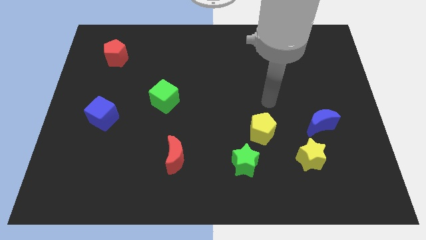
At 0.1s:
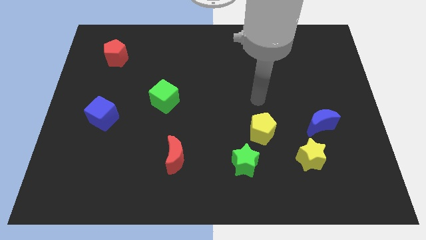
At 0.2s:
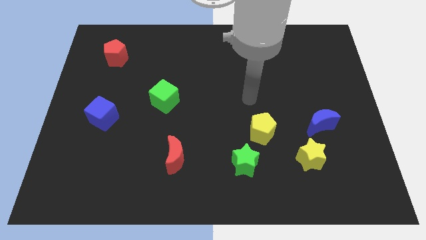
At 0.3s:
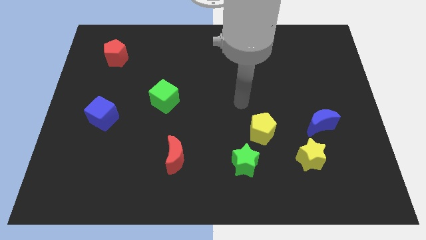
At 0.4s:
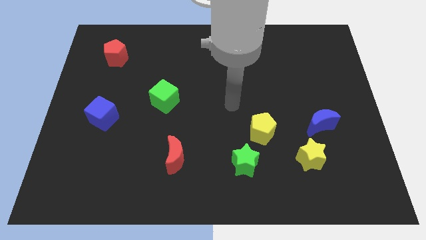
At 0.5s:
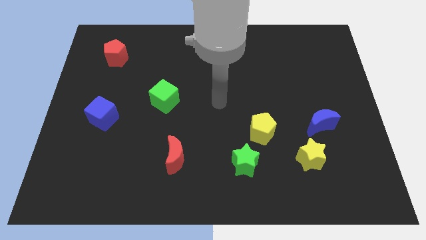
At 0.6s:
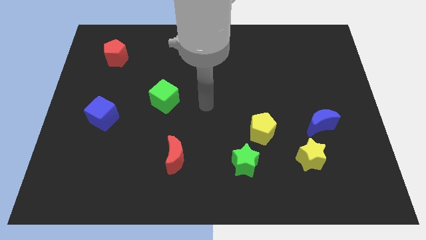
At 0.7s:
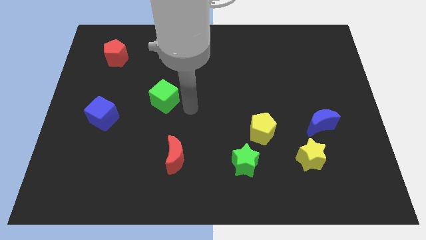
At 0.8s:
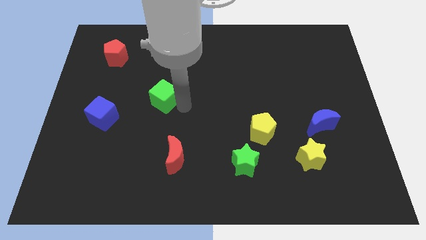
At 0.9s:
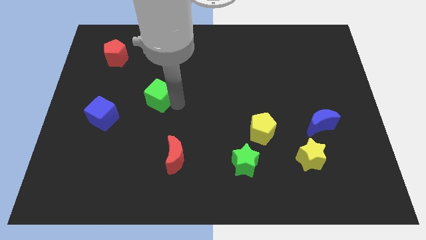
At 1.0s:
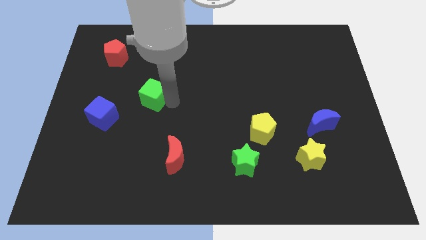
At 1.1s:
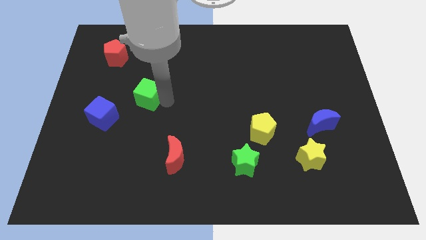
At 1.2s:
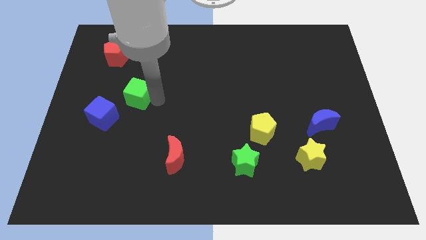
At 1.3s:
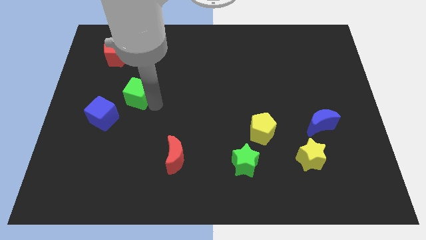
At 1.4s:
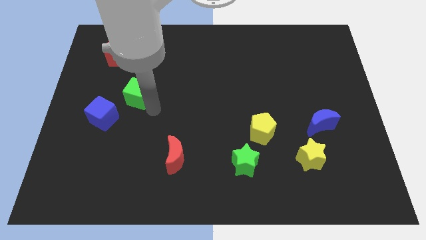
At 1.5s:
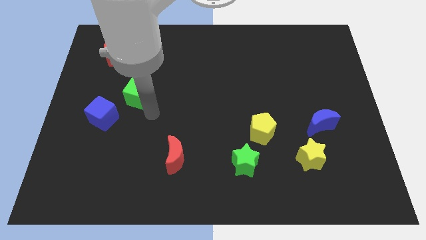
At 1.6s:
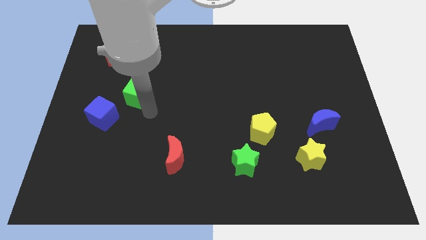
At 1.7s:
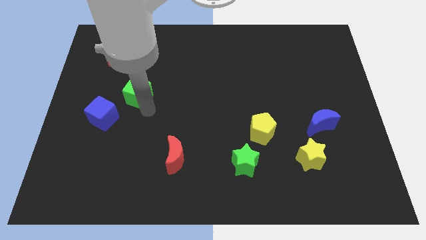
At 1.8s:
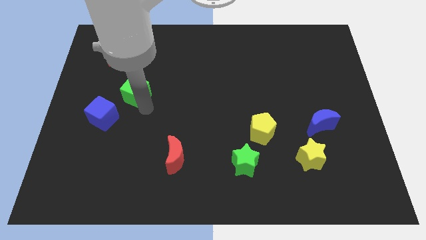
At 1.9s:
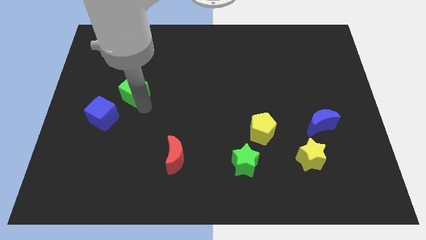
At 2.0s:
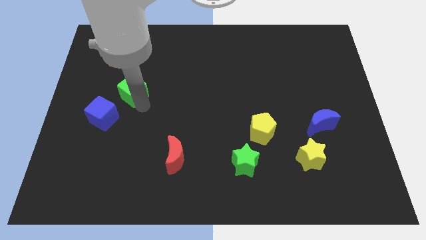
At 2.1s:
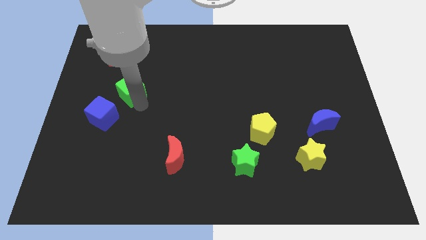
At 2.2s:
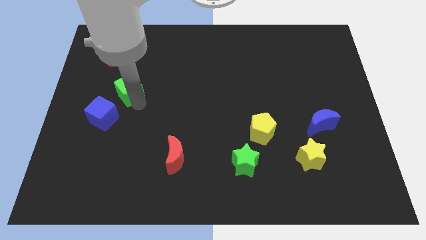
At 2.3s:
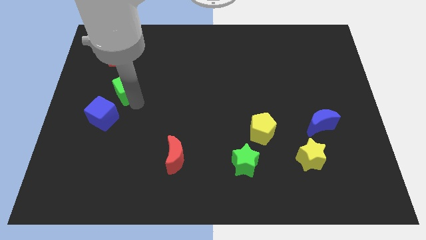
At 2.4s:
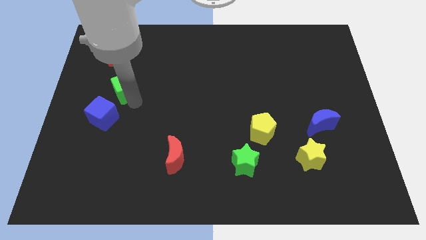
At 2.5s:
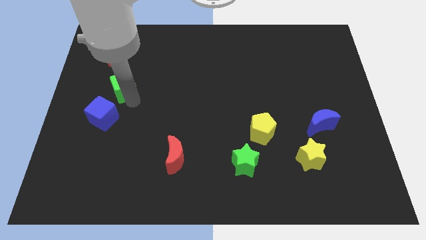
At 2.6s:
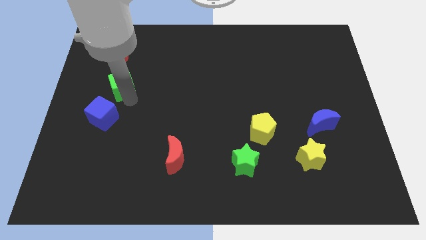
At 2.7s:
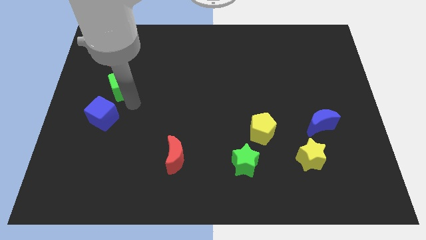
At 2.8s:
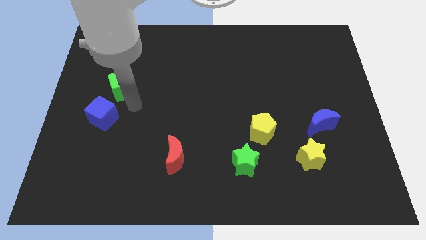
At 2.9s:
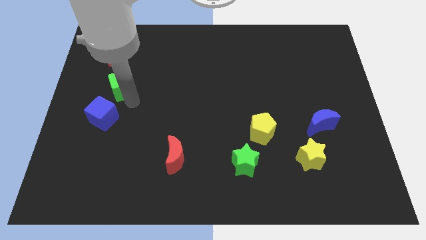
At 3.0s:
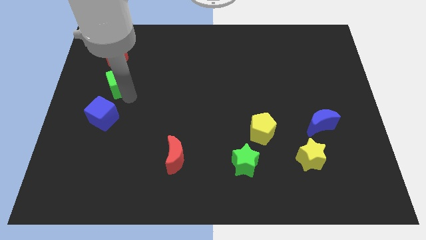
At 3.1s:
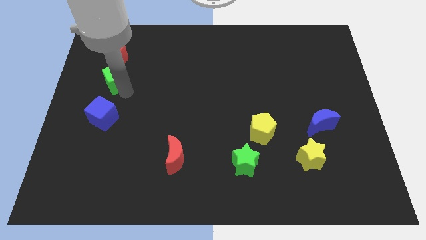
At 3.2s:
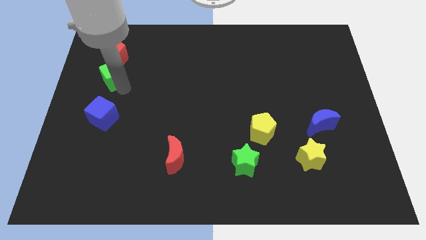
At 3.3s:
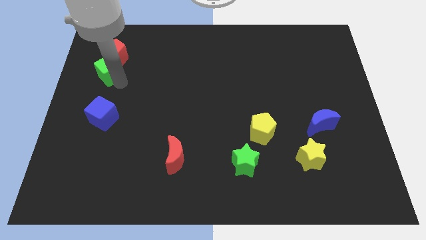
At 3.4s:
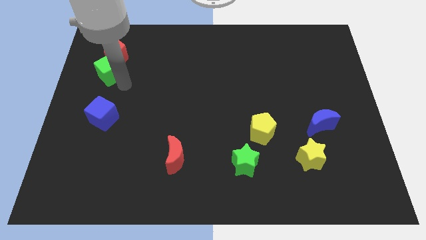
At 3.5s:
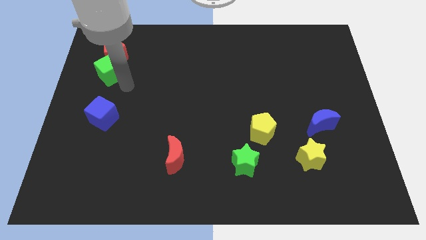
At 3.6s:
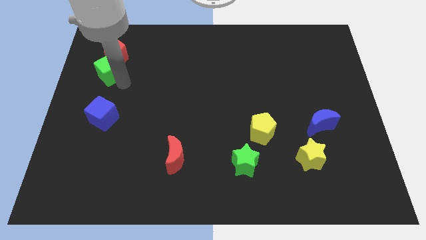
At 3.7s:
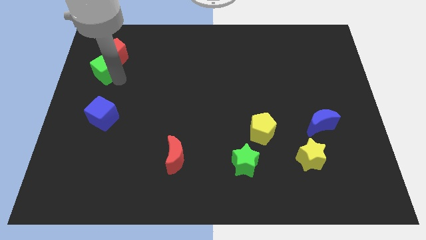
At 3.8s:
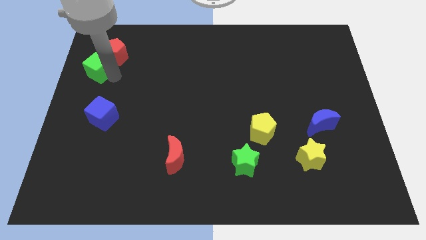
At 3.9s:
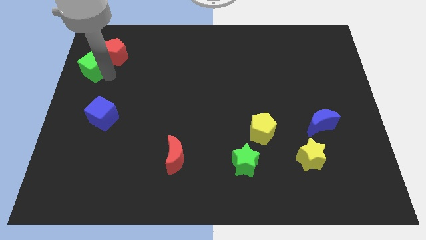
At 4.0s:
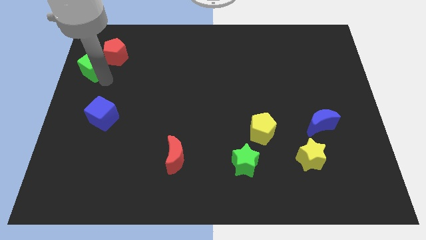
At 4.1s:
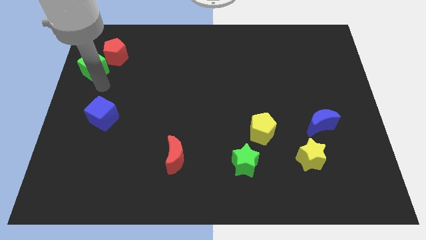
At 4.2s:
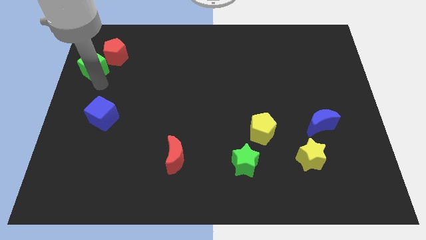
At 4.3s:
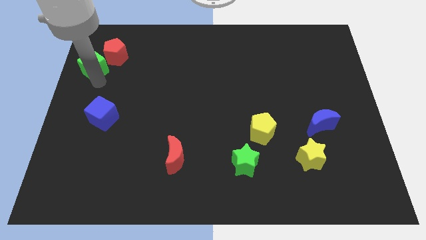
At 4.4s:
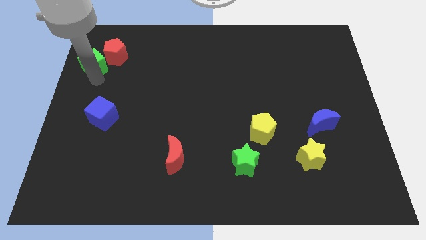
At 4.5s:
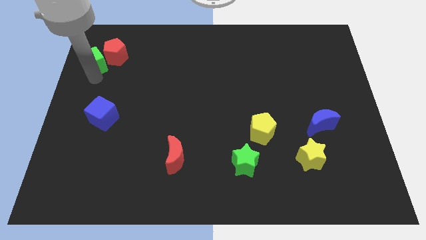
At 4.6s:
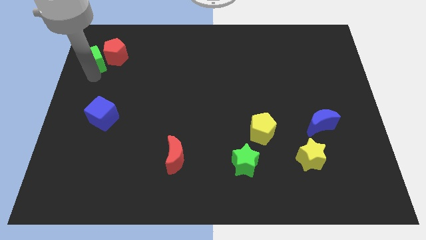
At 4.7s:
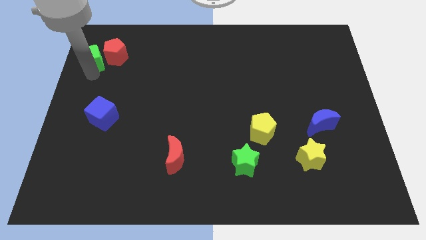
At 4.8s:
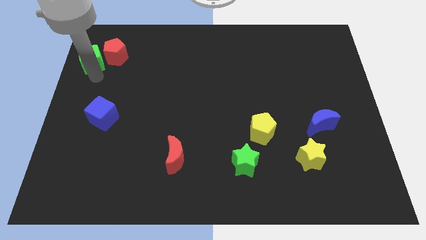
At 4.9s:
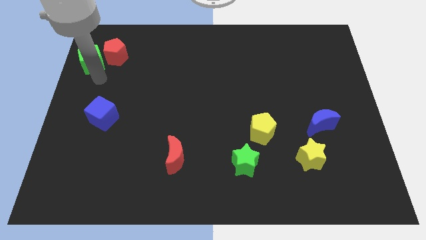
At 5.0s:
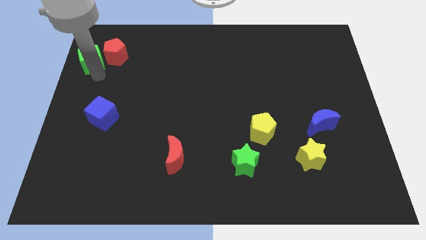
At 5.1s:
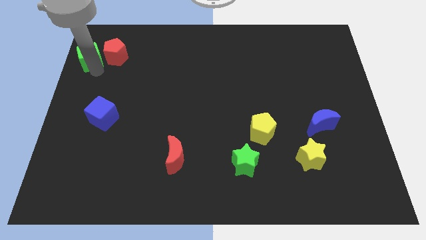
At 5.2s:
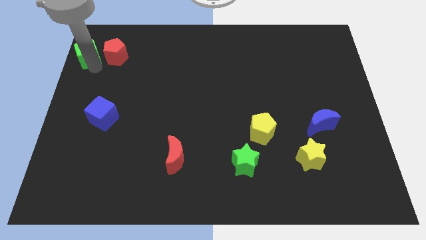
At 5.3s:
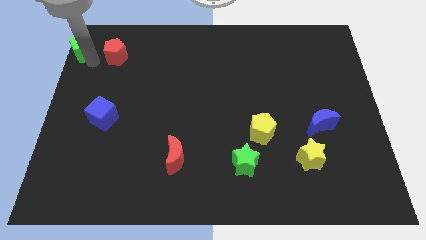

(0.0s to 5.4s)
slide the green cube to the top left corner

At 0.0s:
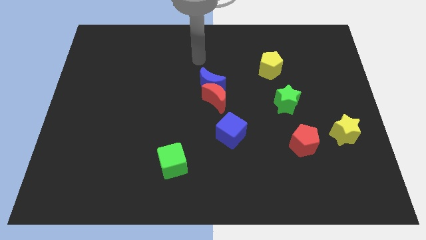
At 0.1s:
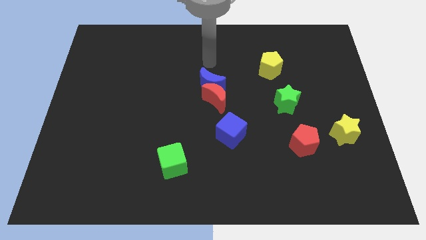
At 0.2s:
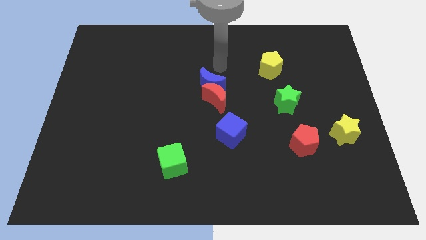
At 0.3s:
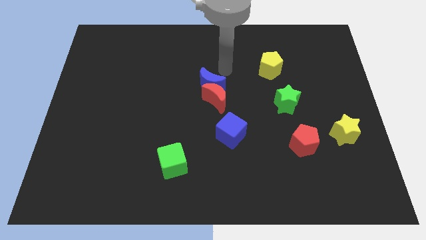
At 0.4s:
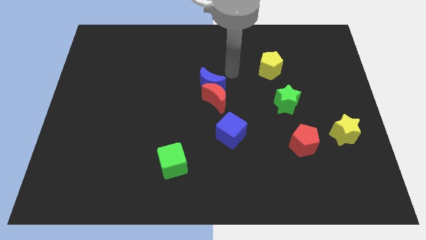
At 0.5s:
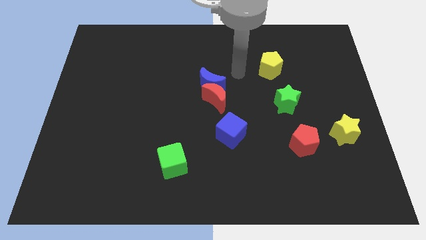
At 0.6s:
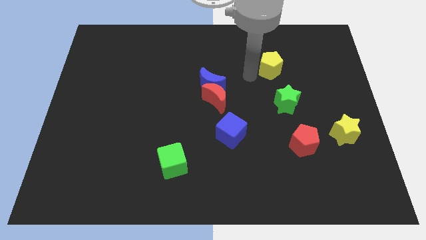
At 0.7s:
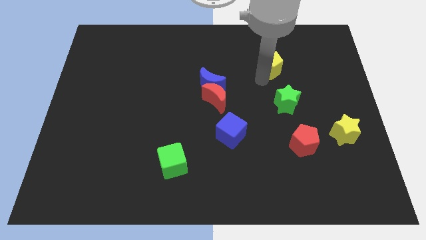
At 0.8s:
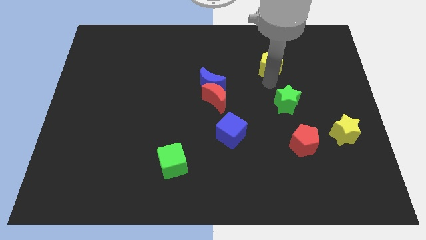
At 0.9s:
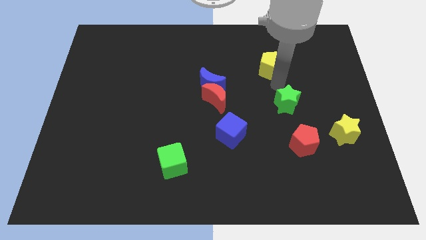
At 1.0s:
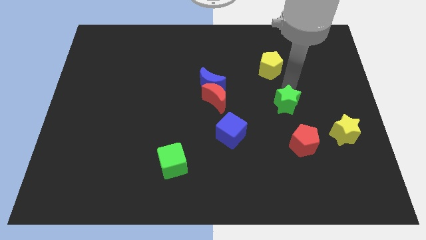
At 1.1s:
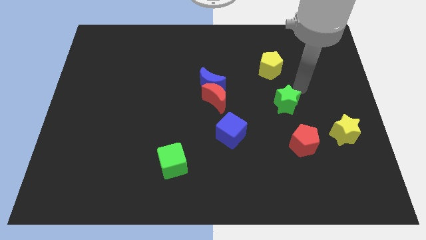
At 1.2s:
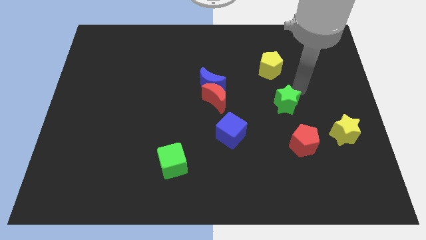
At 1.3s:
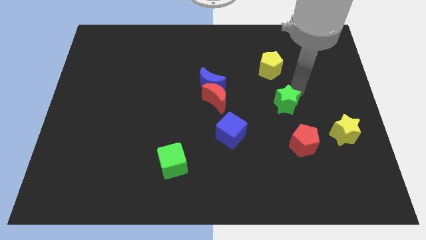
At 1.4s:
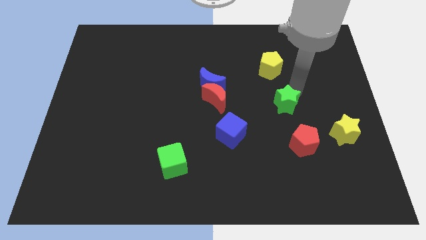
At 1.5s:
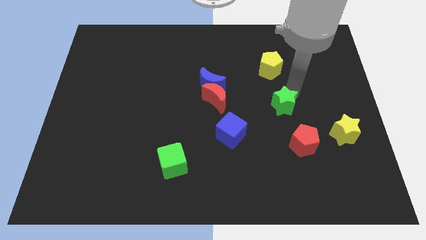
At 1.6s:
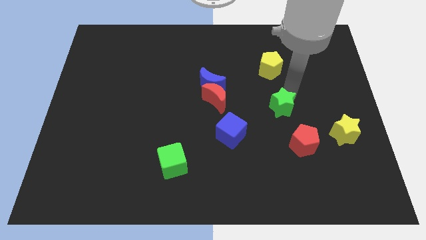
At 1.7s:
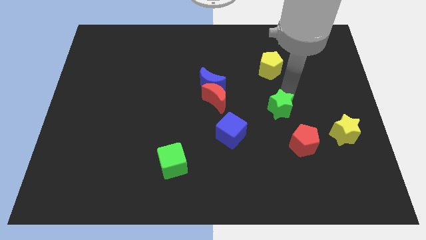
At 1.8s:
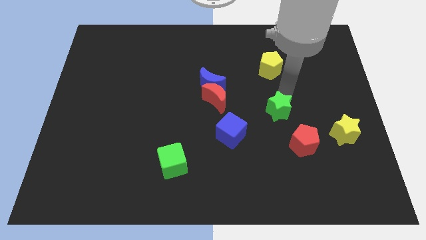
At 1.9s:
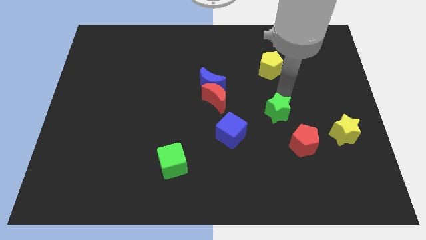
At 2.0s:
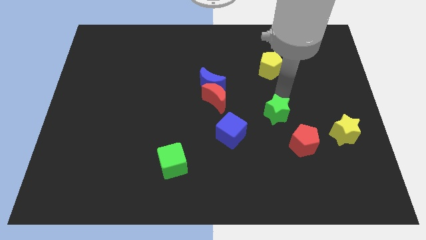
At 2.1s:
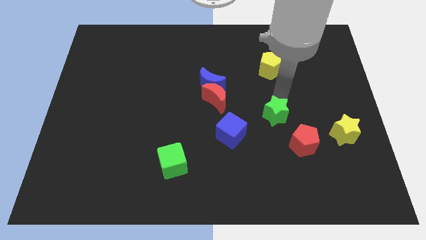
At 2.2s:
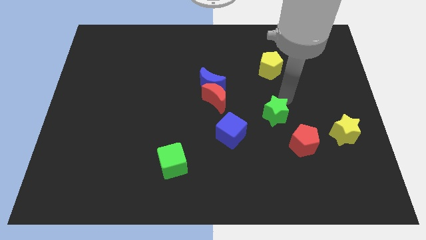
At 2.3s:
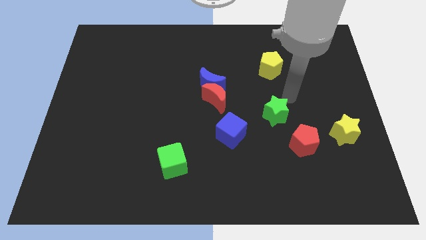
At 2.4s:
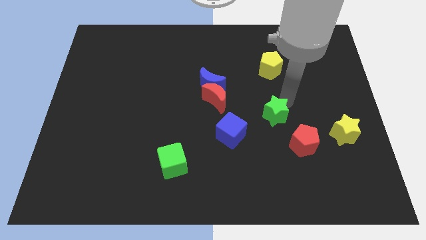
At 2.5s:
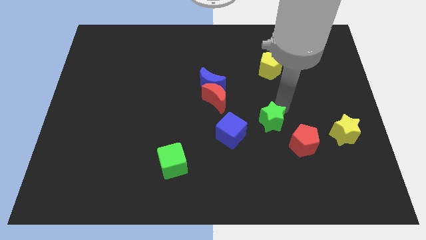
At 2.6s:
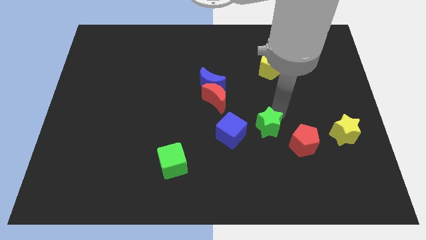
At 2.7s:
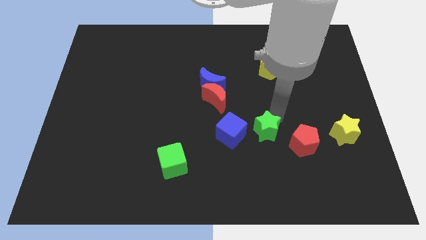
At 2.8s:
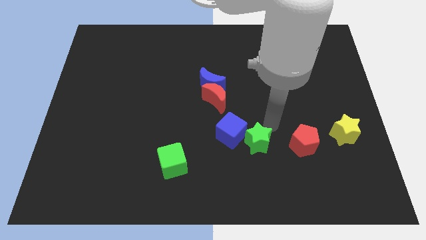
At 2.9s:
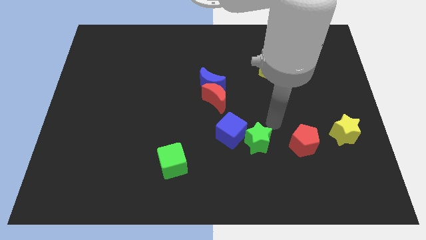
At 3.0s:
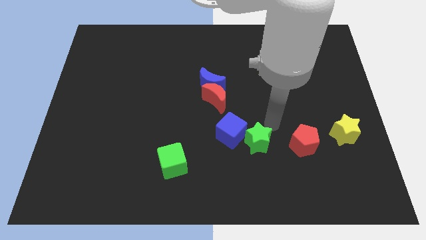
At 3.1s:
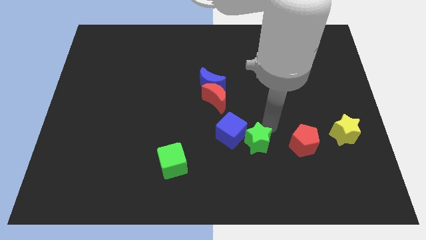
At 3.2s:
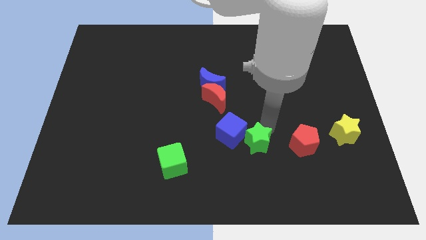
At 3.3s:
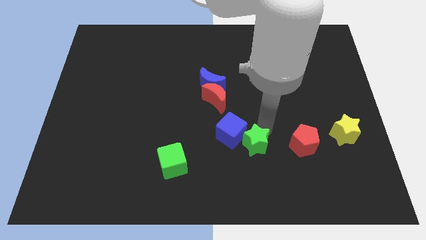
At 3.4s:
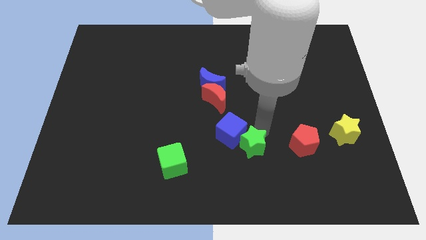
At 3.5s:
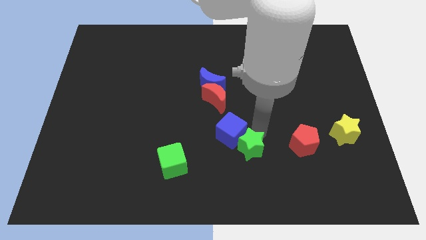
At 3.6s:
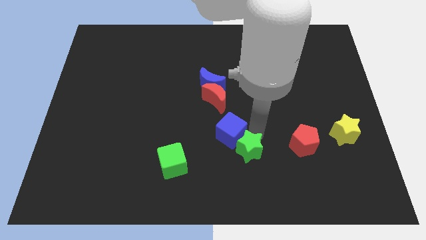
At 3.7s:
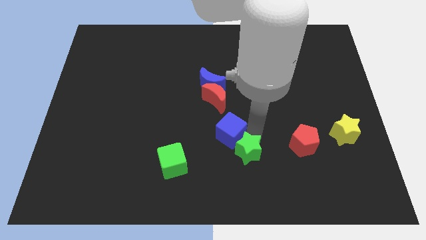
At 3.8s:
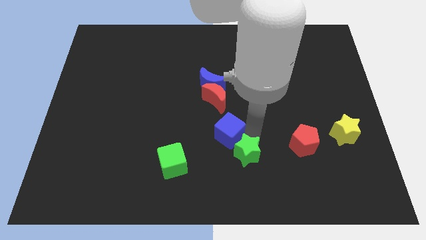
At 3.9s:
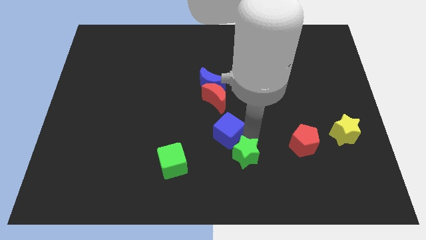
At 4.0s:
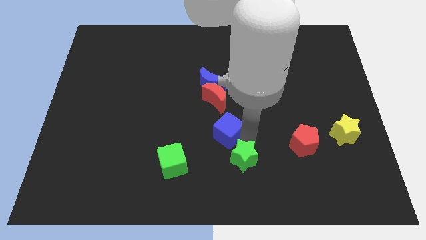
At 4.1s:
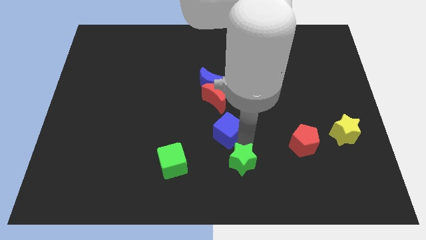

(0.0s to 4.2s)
slide the green star to the bottom
